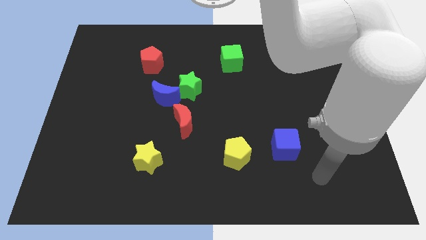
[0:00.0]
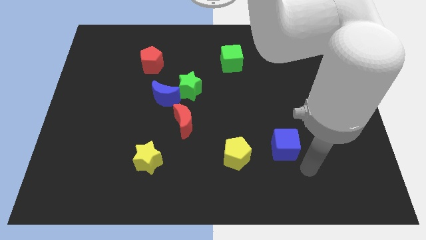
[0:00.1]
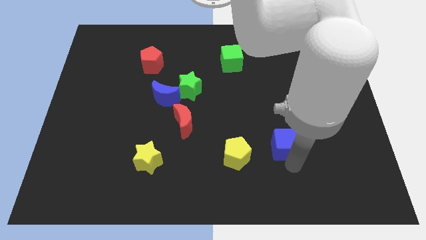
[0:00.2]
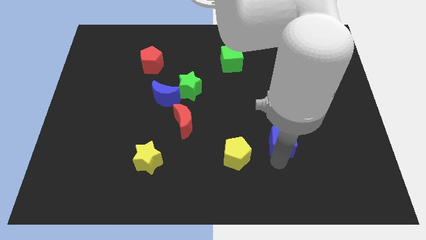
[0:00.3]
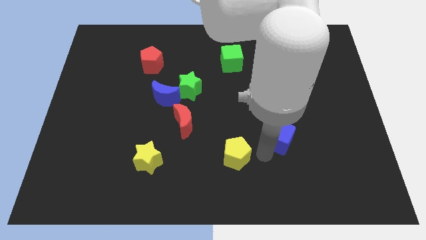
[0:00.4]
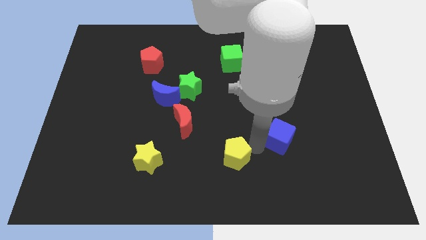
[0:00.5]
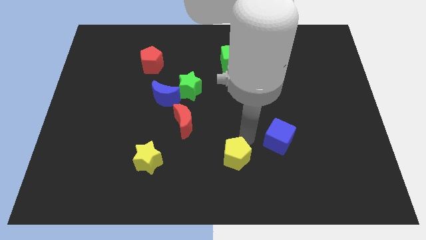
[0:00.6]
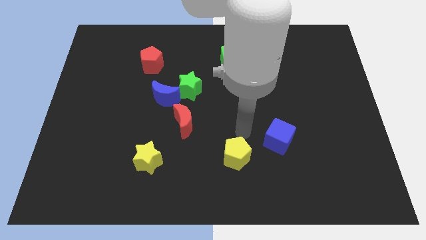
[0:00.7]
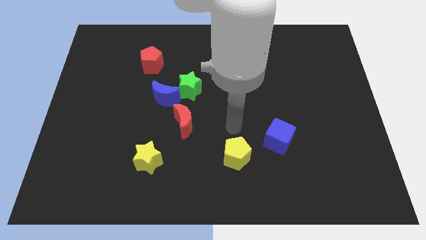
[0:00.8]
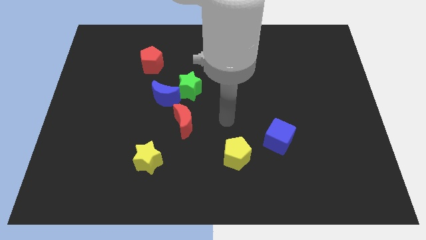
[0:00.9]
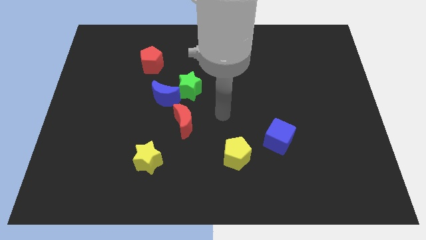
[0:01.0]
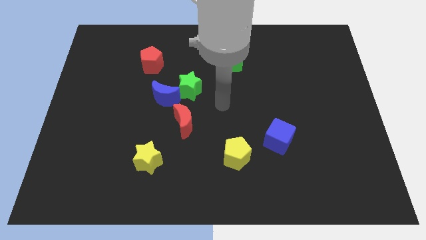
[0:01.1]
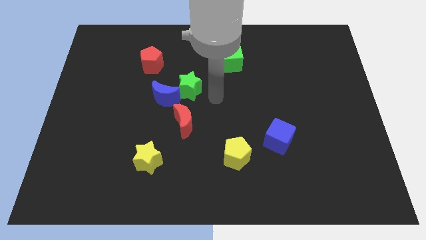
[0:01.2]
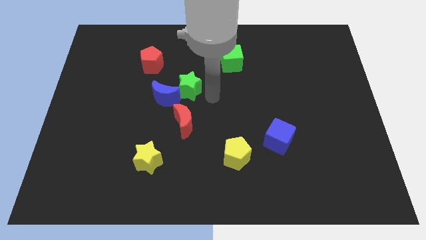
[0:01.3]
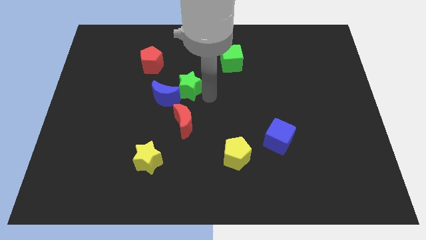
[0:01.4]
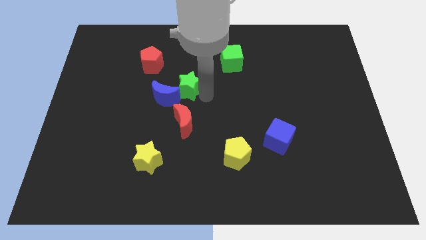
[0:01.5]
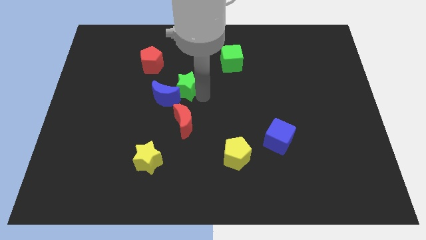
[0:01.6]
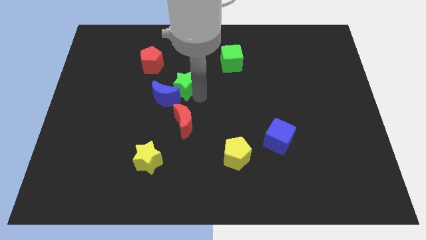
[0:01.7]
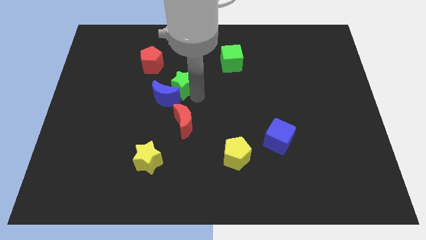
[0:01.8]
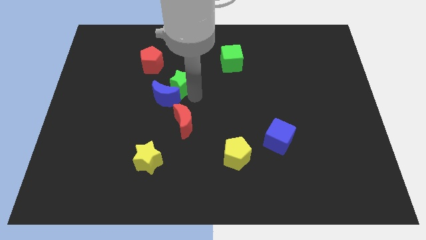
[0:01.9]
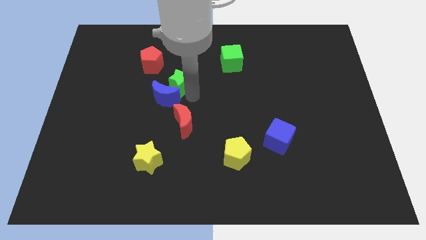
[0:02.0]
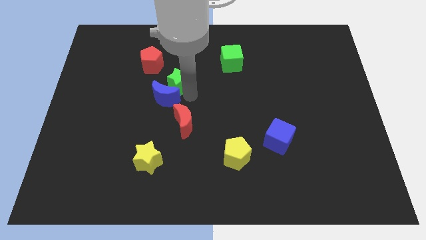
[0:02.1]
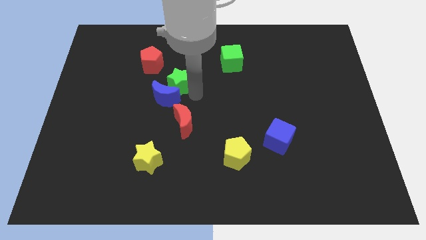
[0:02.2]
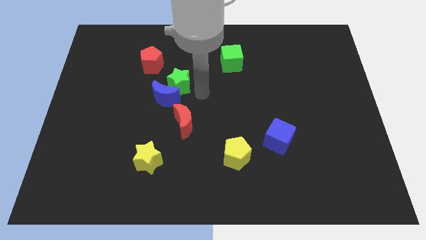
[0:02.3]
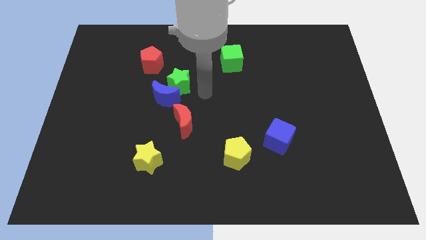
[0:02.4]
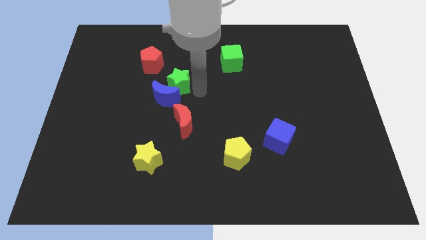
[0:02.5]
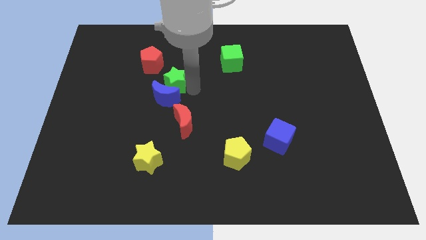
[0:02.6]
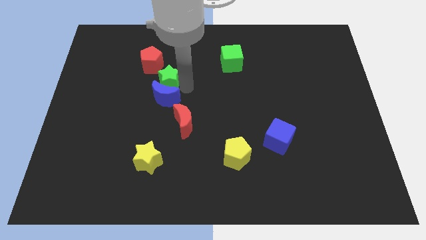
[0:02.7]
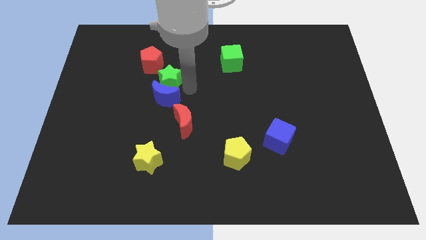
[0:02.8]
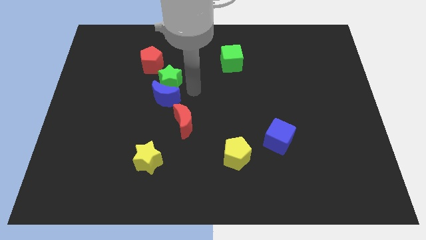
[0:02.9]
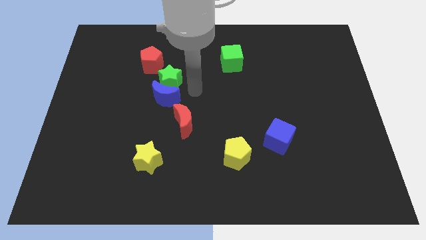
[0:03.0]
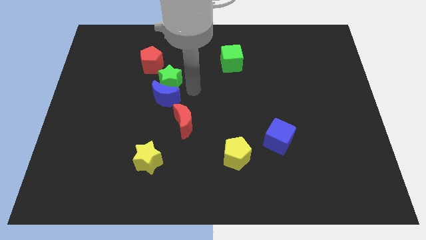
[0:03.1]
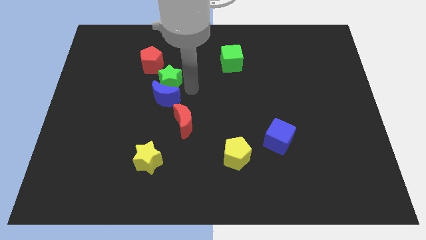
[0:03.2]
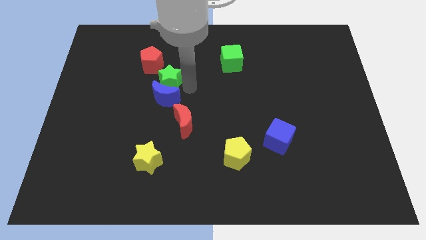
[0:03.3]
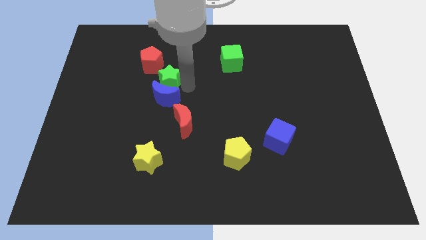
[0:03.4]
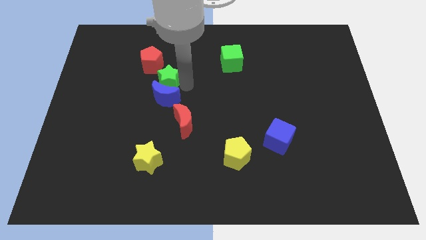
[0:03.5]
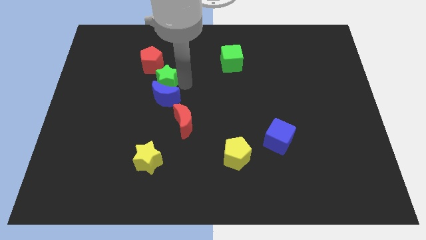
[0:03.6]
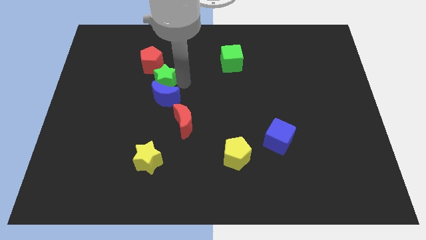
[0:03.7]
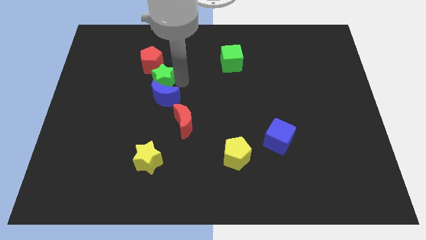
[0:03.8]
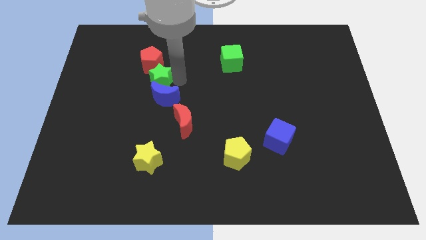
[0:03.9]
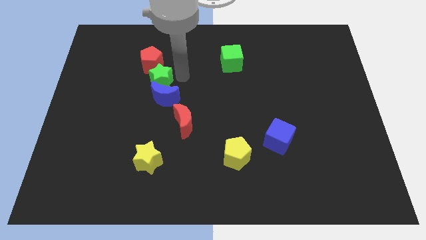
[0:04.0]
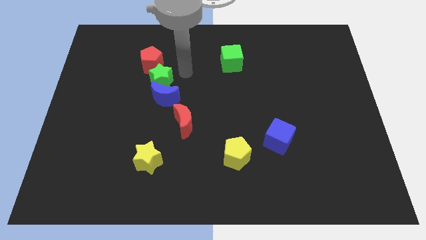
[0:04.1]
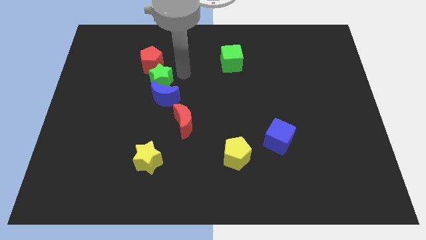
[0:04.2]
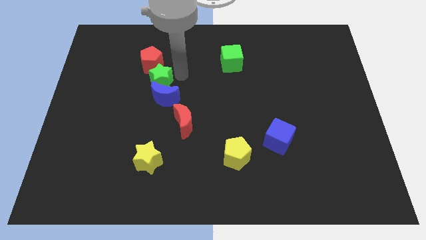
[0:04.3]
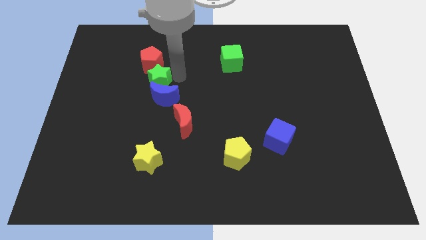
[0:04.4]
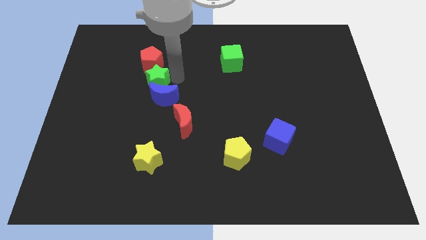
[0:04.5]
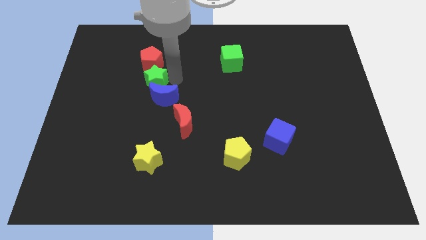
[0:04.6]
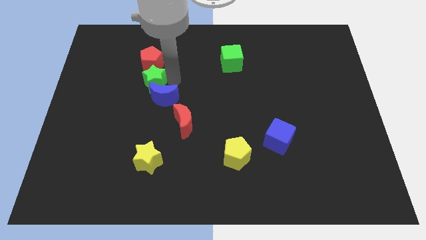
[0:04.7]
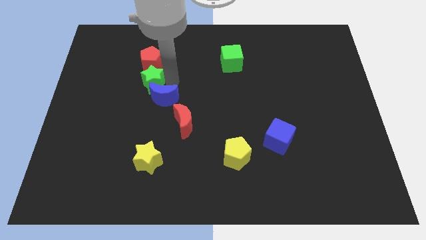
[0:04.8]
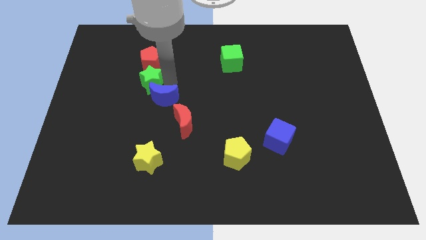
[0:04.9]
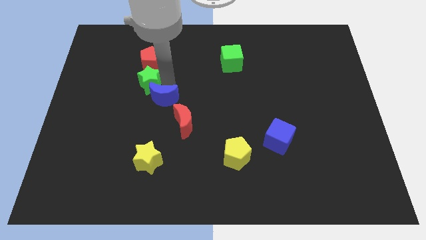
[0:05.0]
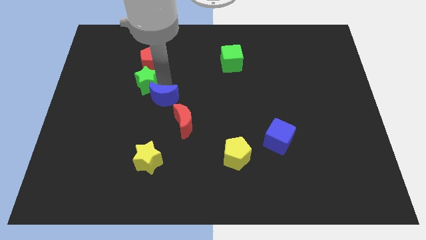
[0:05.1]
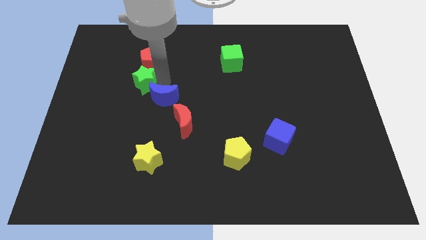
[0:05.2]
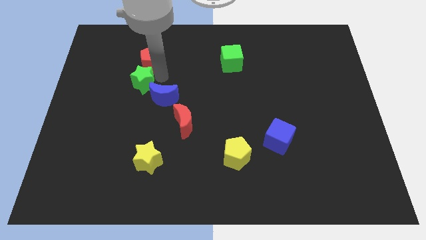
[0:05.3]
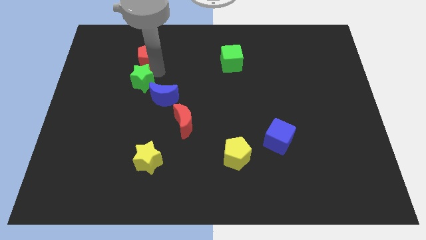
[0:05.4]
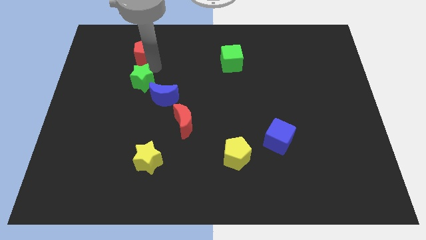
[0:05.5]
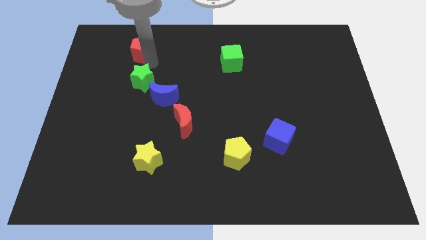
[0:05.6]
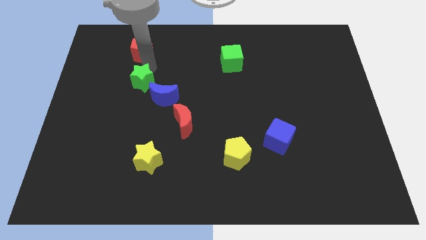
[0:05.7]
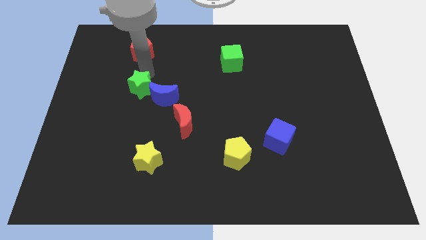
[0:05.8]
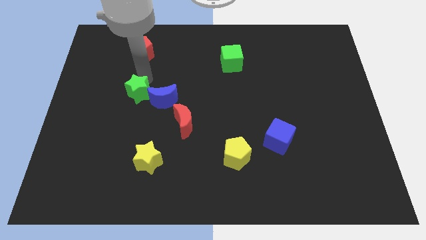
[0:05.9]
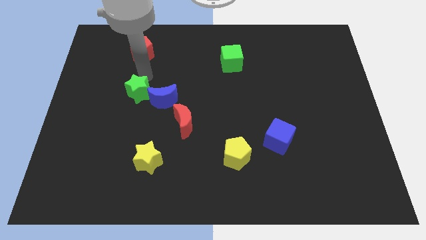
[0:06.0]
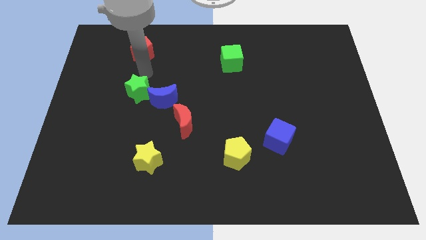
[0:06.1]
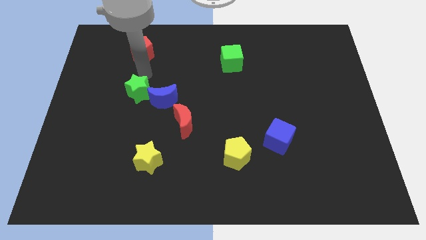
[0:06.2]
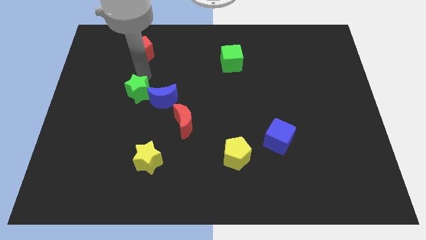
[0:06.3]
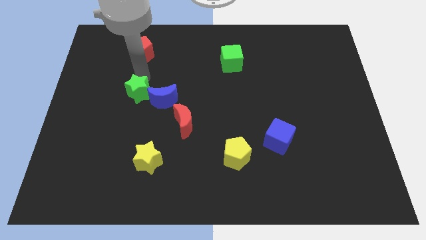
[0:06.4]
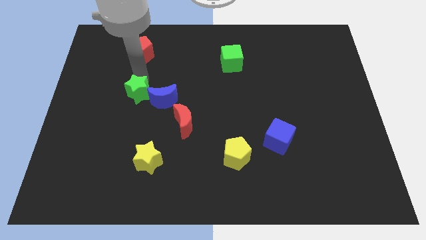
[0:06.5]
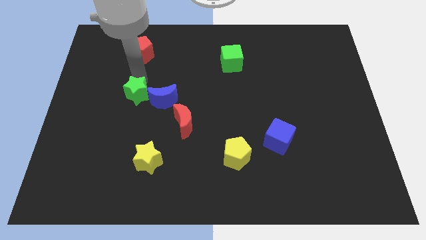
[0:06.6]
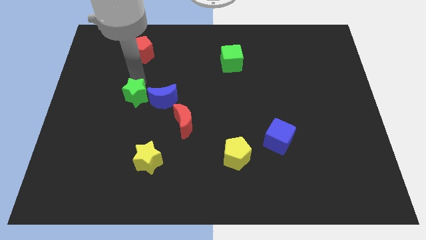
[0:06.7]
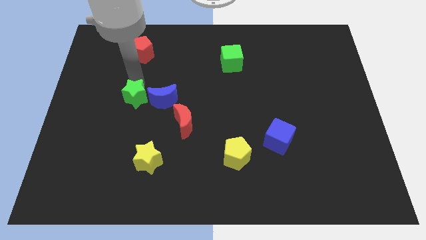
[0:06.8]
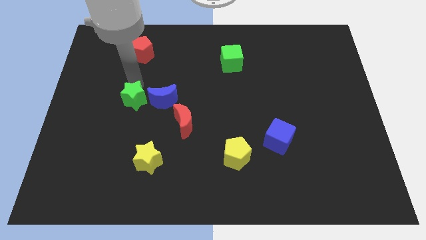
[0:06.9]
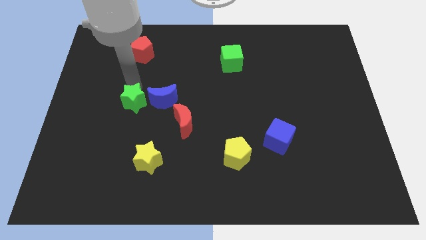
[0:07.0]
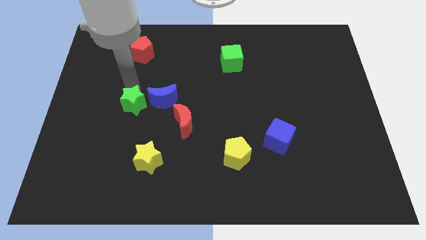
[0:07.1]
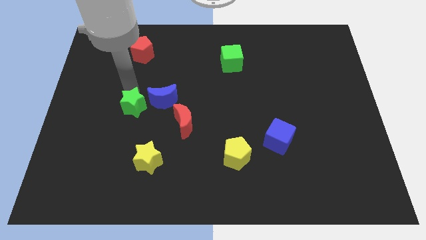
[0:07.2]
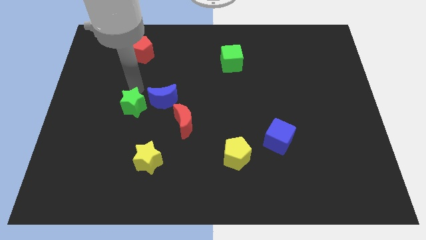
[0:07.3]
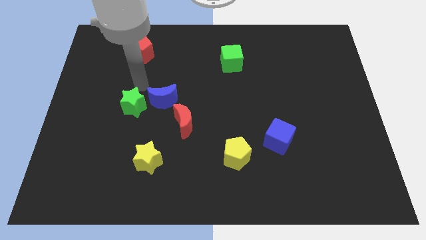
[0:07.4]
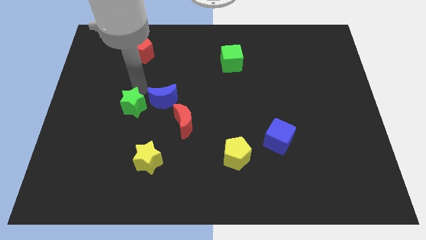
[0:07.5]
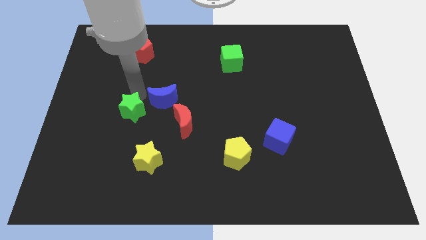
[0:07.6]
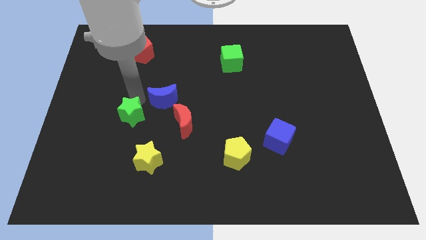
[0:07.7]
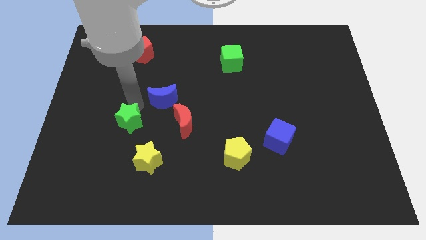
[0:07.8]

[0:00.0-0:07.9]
push the green star diagonally up and to the left of the yellow star
